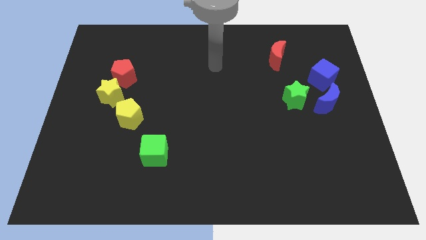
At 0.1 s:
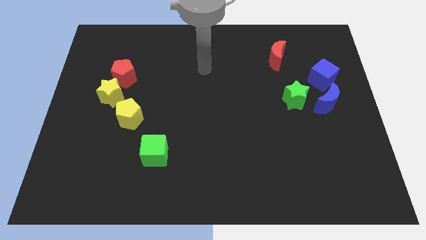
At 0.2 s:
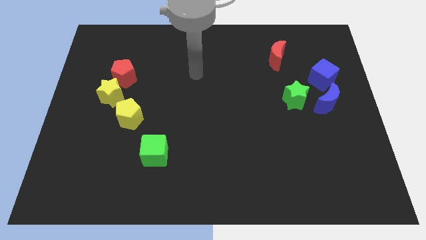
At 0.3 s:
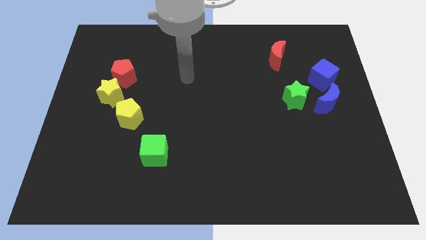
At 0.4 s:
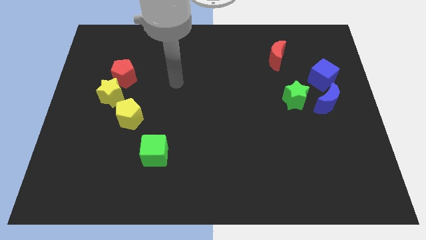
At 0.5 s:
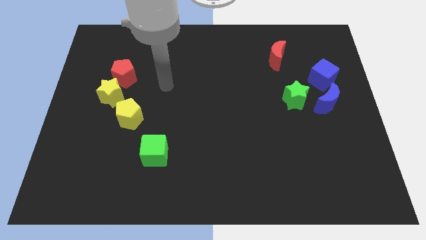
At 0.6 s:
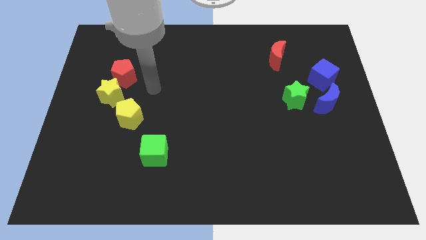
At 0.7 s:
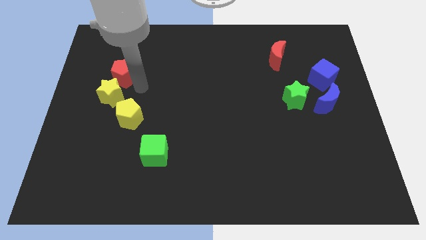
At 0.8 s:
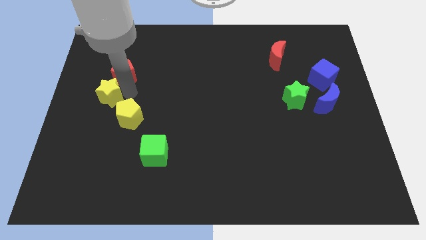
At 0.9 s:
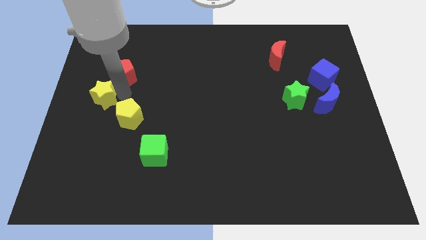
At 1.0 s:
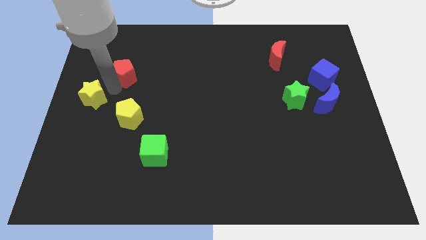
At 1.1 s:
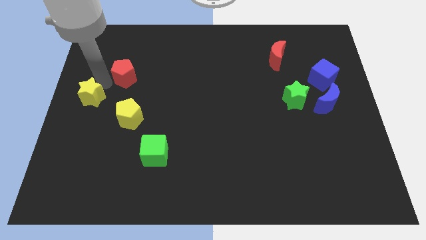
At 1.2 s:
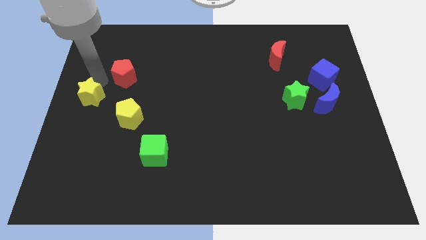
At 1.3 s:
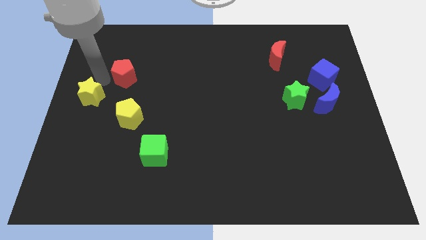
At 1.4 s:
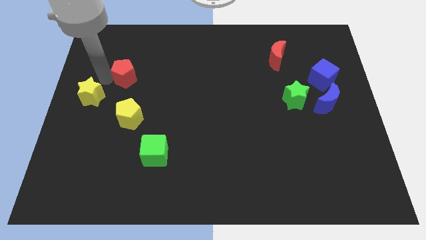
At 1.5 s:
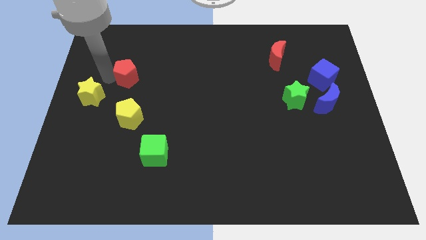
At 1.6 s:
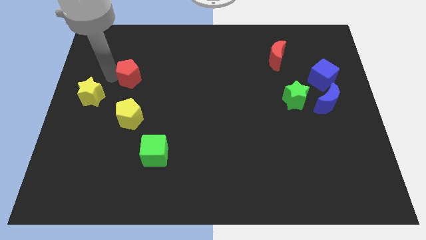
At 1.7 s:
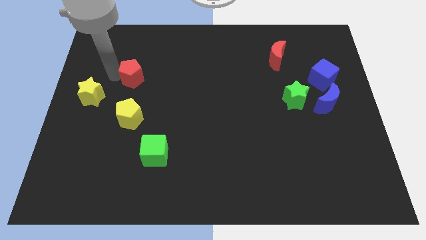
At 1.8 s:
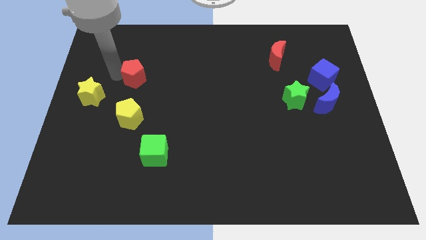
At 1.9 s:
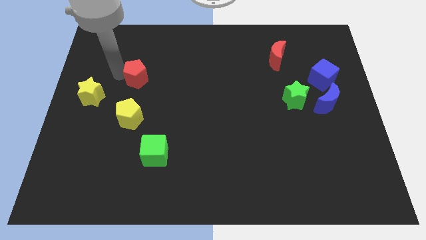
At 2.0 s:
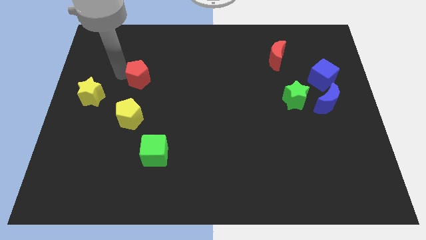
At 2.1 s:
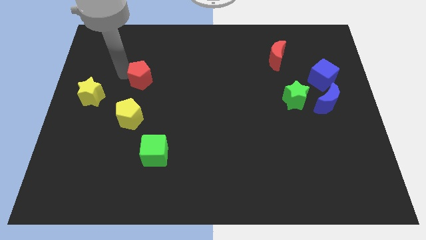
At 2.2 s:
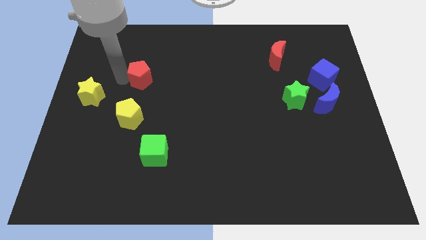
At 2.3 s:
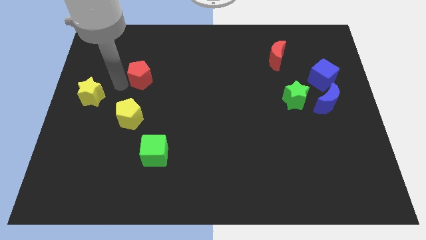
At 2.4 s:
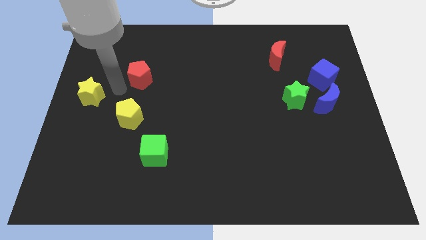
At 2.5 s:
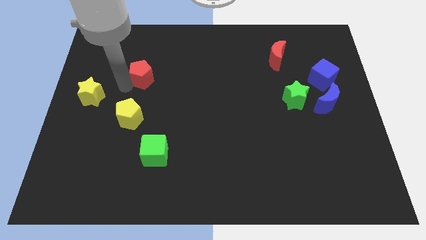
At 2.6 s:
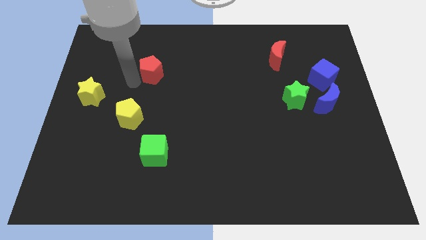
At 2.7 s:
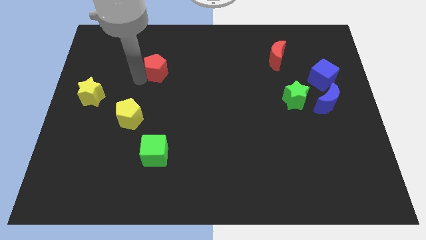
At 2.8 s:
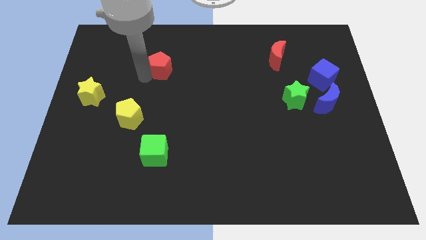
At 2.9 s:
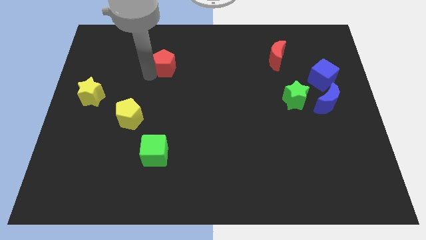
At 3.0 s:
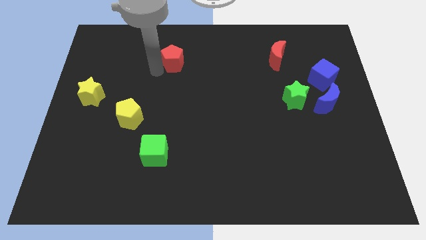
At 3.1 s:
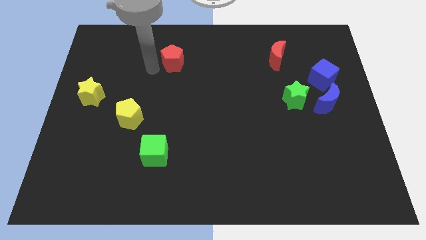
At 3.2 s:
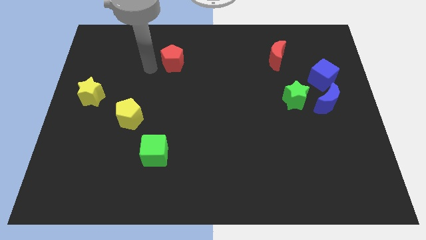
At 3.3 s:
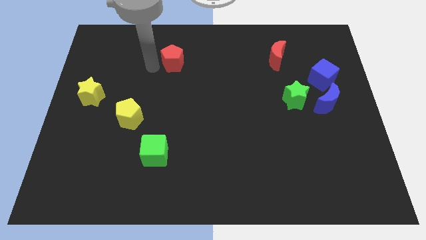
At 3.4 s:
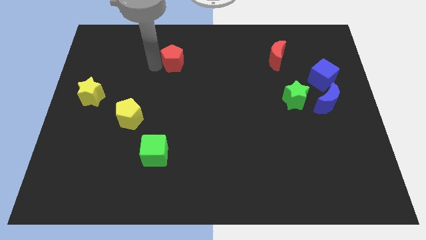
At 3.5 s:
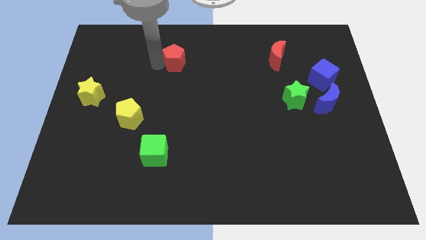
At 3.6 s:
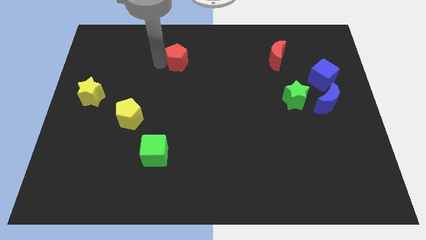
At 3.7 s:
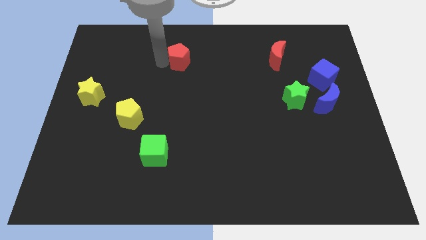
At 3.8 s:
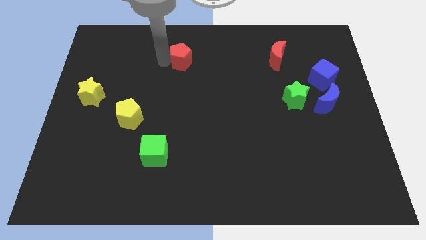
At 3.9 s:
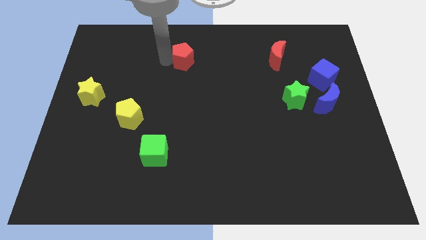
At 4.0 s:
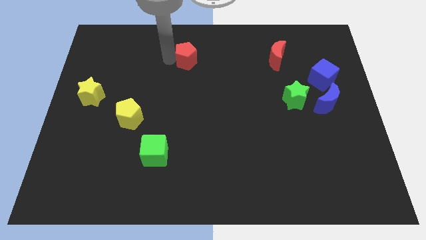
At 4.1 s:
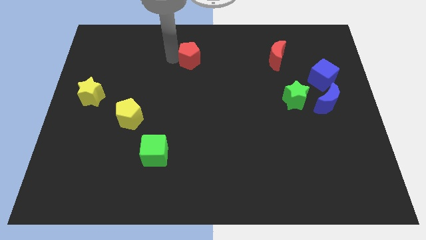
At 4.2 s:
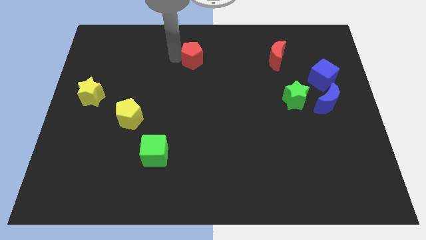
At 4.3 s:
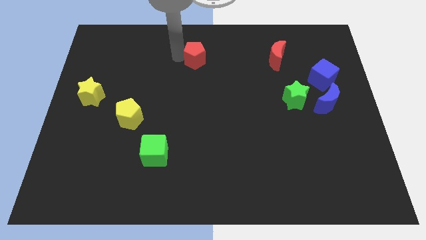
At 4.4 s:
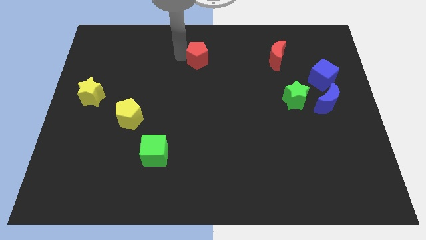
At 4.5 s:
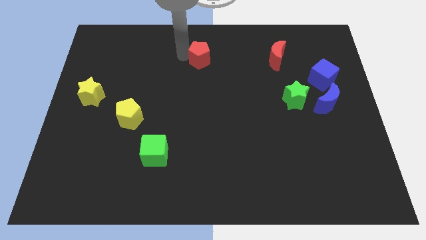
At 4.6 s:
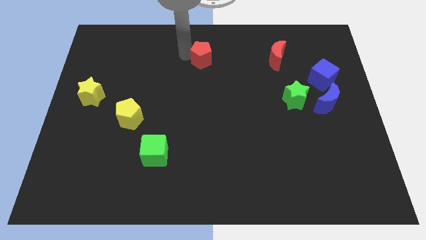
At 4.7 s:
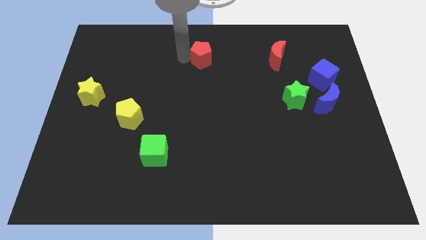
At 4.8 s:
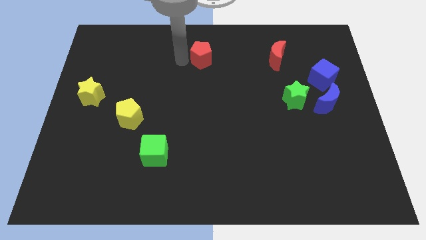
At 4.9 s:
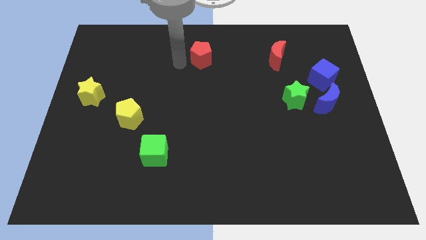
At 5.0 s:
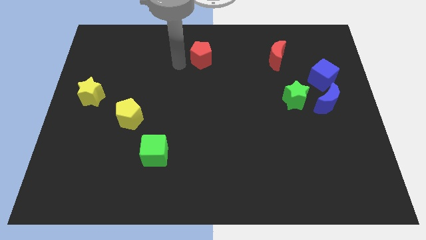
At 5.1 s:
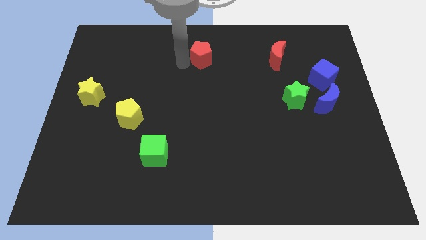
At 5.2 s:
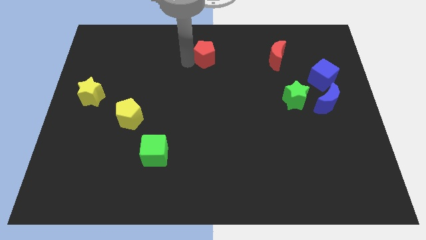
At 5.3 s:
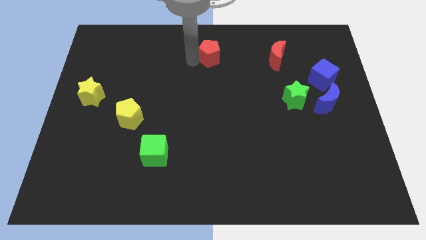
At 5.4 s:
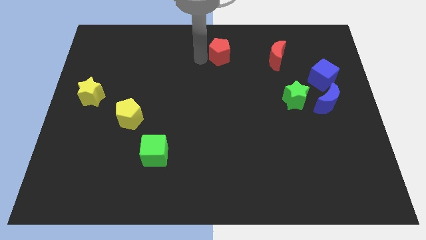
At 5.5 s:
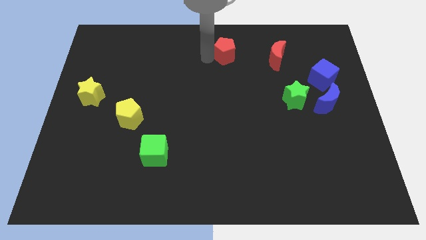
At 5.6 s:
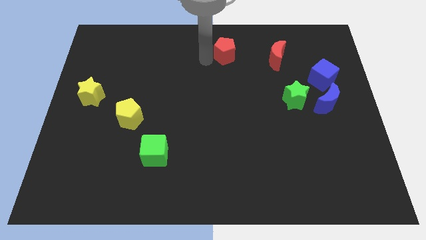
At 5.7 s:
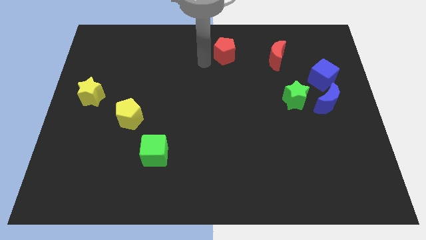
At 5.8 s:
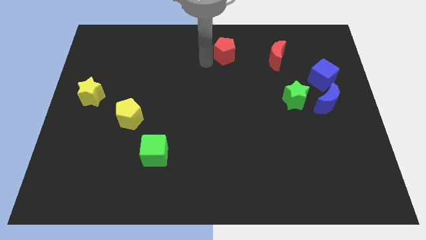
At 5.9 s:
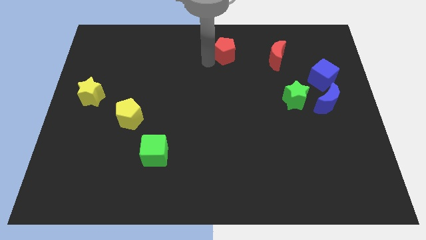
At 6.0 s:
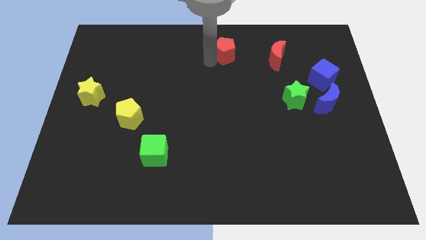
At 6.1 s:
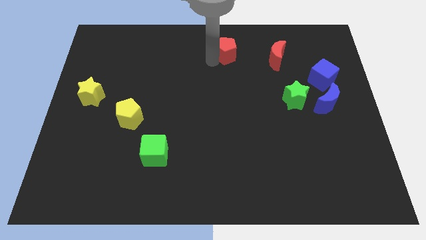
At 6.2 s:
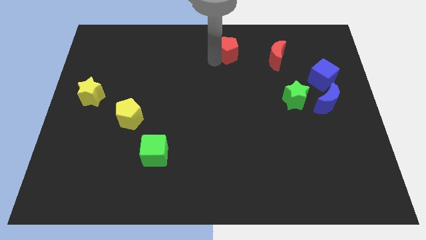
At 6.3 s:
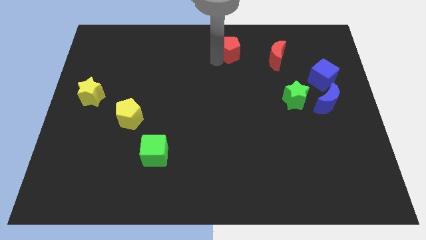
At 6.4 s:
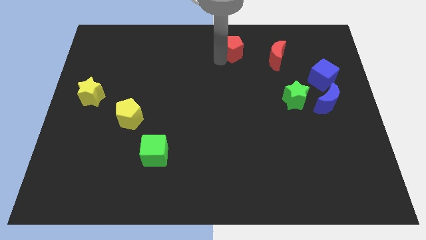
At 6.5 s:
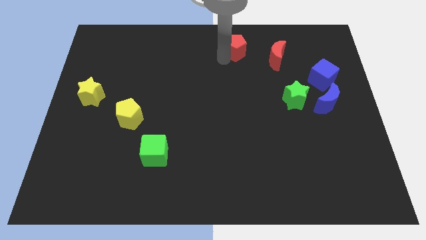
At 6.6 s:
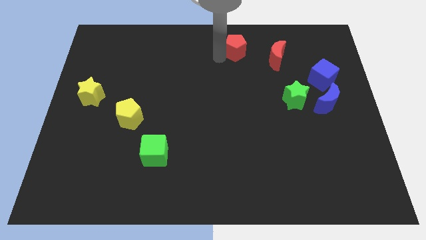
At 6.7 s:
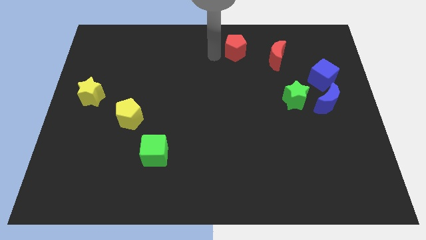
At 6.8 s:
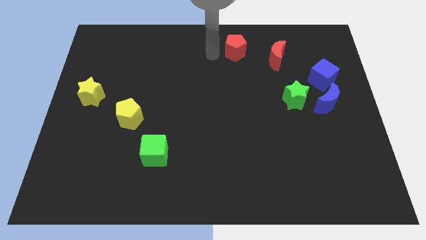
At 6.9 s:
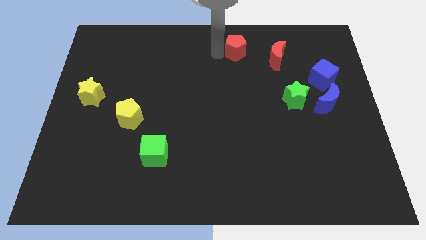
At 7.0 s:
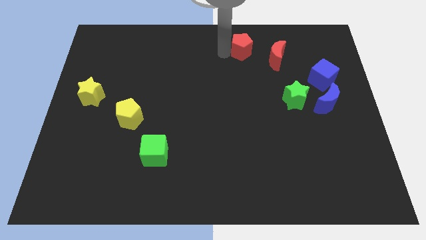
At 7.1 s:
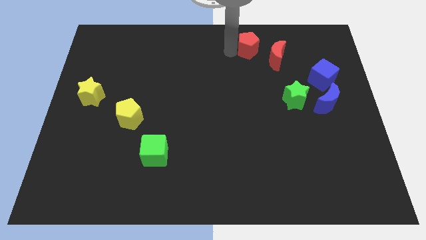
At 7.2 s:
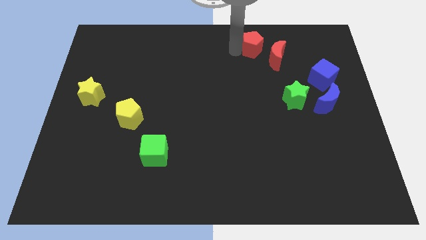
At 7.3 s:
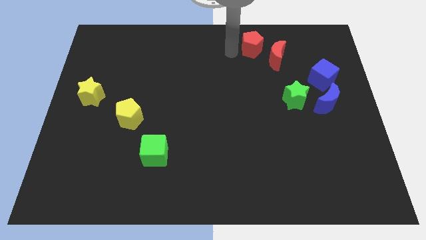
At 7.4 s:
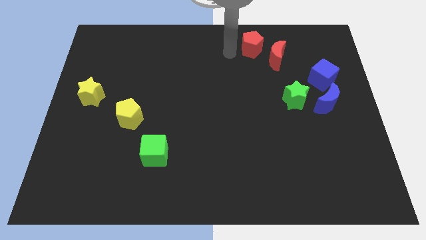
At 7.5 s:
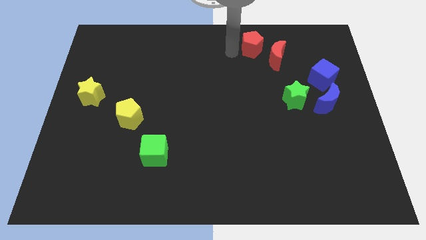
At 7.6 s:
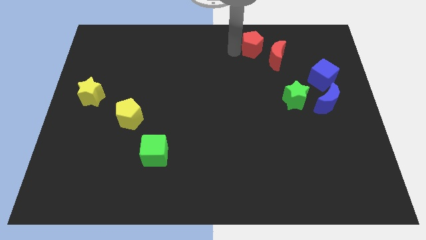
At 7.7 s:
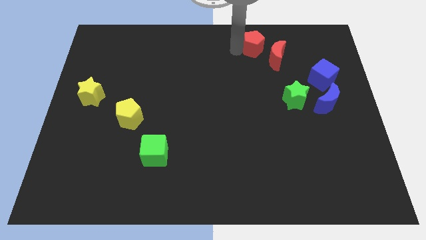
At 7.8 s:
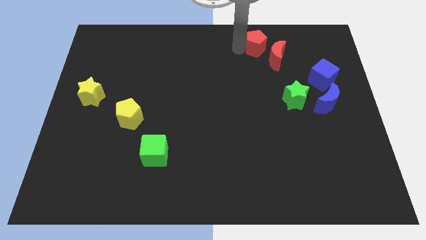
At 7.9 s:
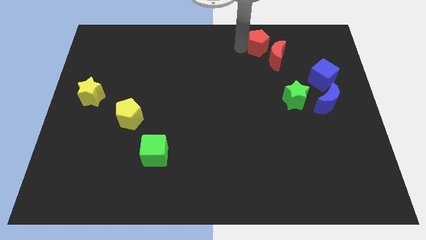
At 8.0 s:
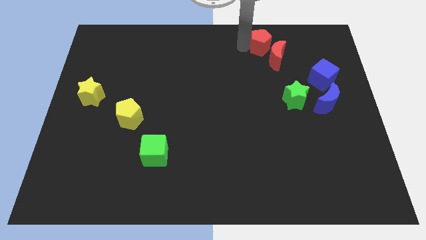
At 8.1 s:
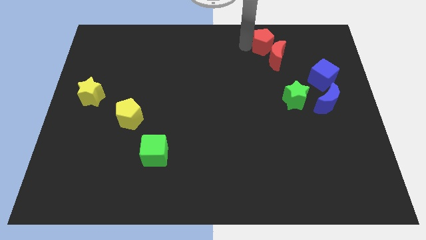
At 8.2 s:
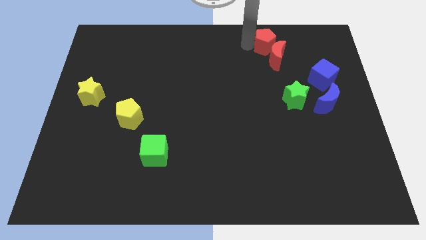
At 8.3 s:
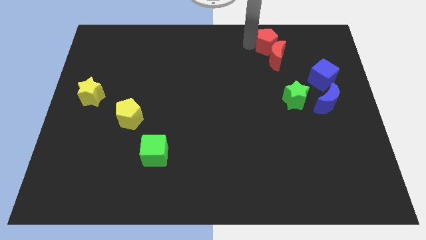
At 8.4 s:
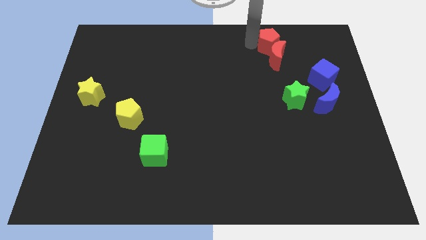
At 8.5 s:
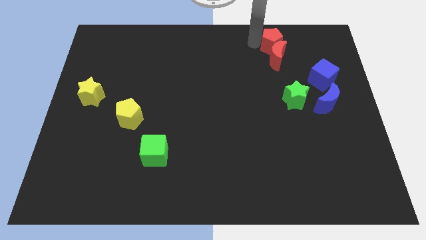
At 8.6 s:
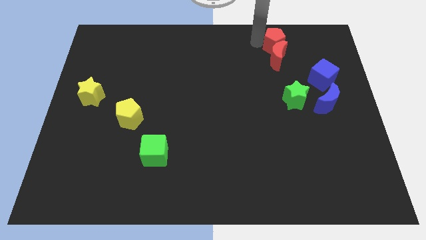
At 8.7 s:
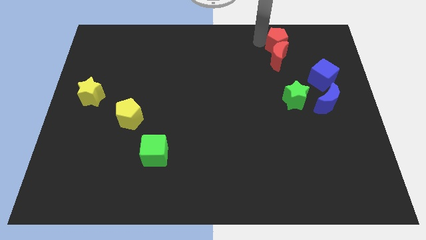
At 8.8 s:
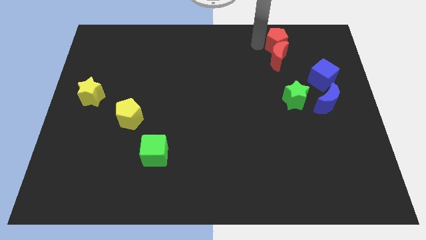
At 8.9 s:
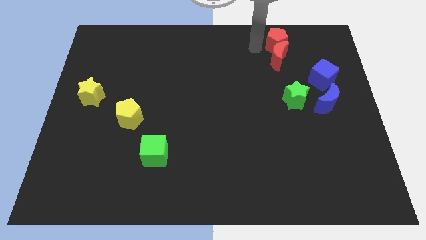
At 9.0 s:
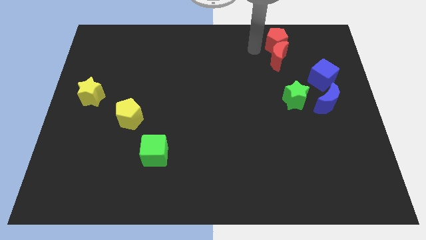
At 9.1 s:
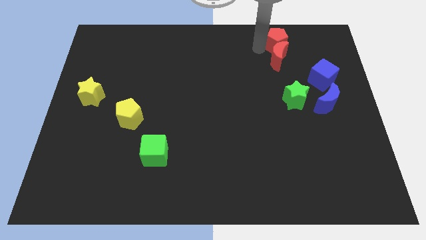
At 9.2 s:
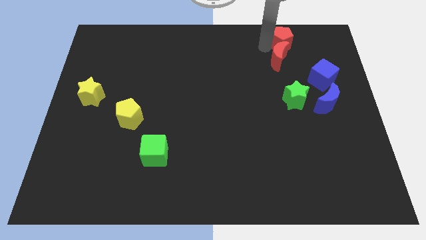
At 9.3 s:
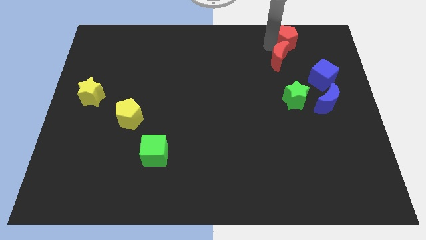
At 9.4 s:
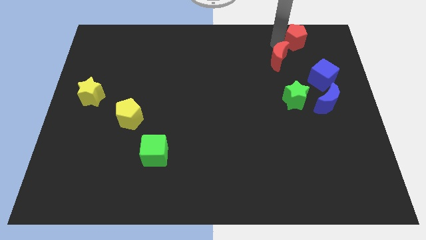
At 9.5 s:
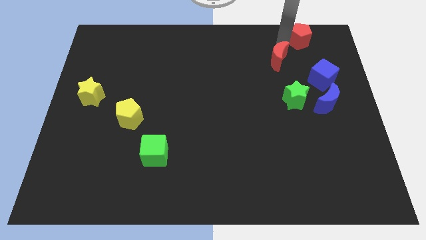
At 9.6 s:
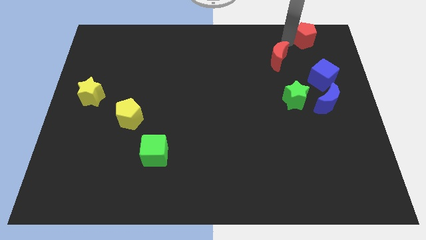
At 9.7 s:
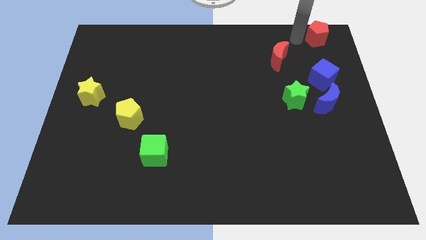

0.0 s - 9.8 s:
slide the red pentagon to the top right corner
